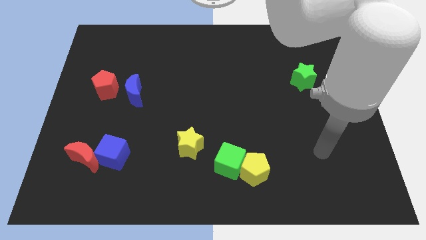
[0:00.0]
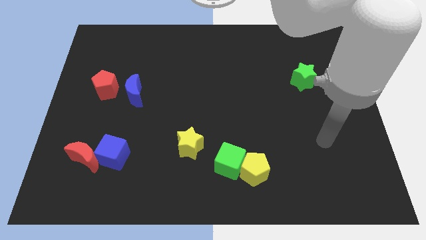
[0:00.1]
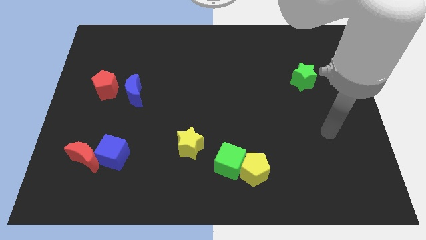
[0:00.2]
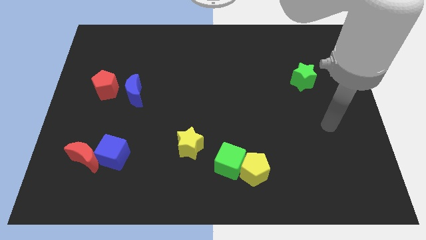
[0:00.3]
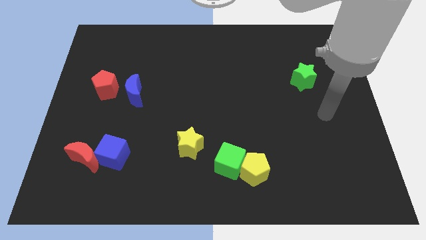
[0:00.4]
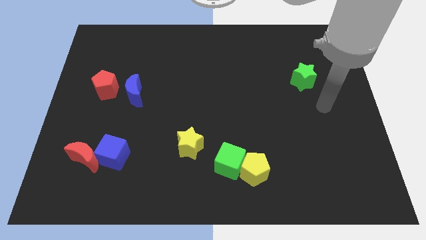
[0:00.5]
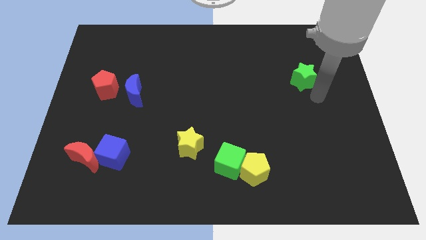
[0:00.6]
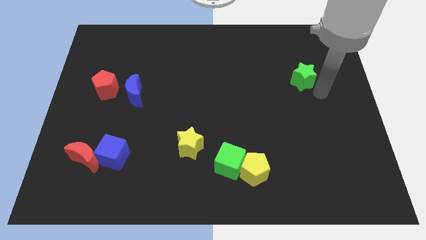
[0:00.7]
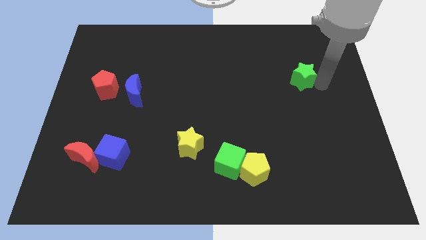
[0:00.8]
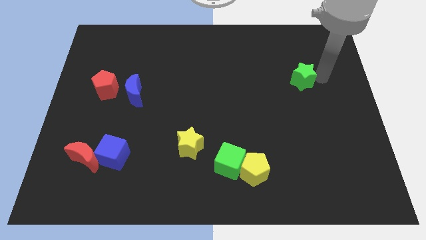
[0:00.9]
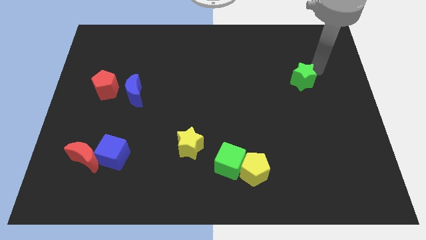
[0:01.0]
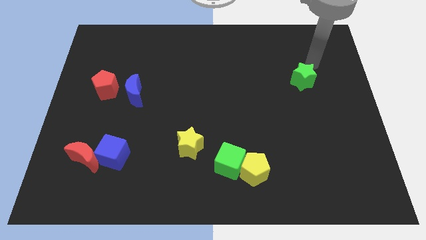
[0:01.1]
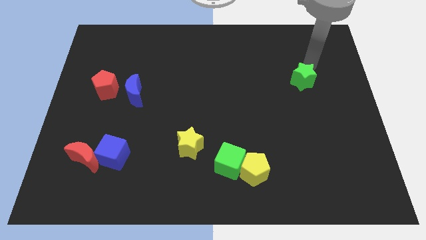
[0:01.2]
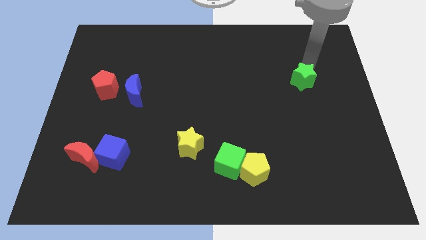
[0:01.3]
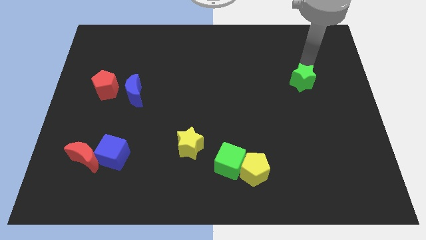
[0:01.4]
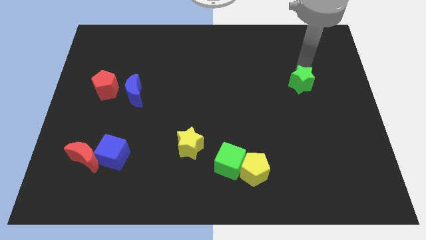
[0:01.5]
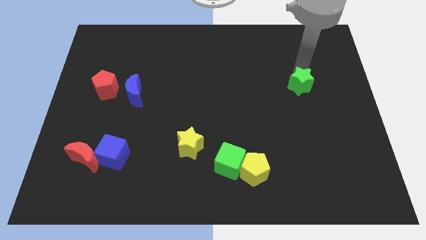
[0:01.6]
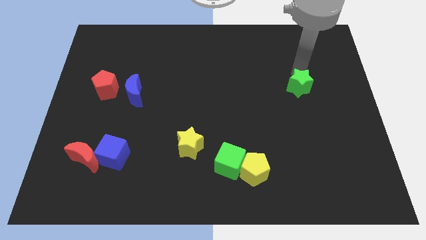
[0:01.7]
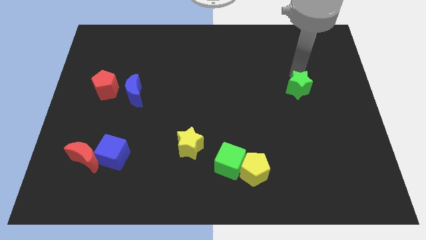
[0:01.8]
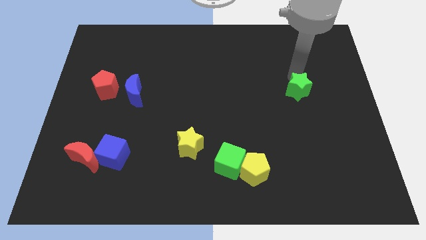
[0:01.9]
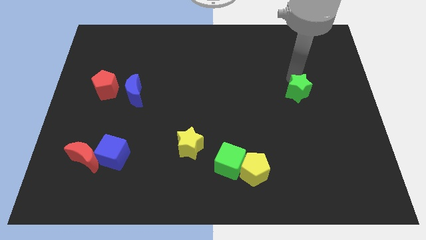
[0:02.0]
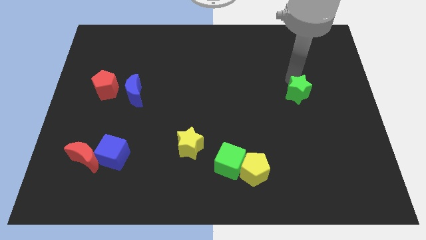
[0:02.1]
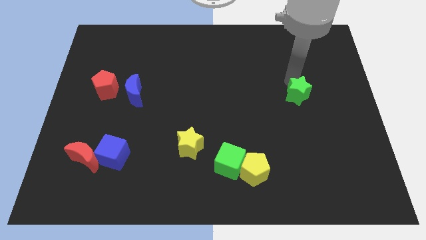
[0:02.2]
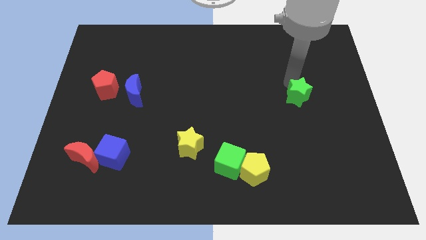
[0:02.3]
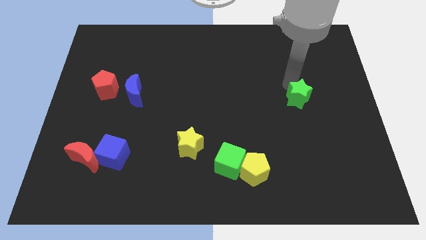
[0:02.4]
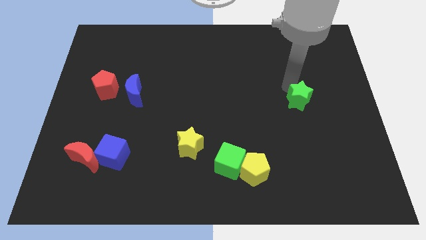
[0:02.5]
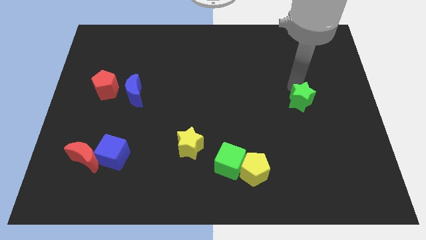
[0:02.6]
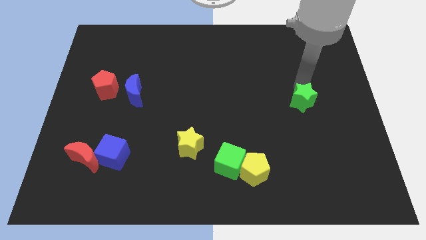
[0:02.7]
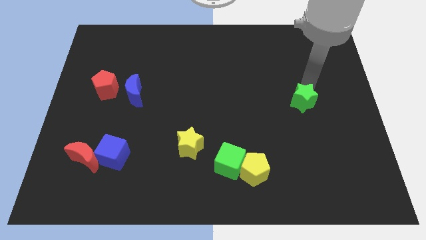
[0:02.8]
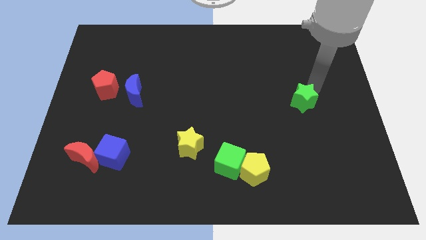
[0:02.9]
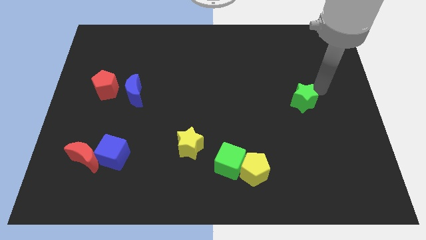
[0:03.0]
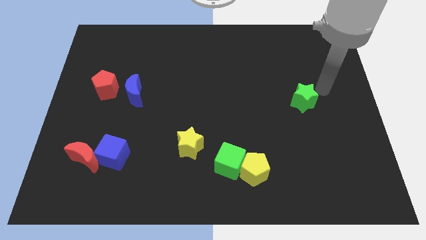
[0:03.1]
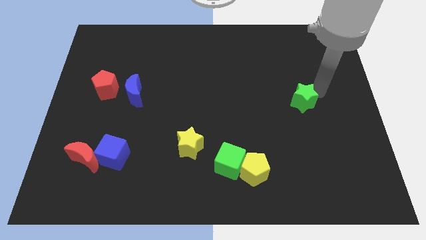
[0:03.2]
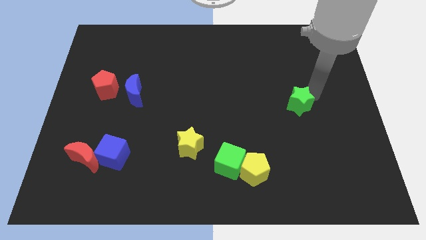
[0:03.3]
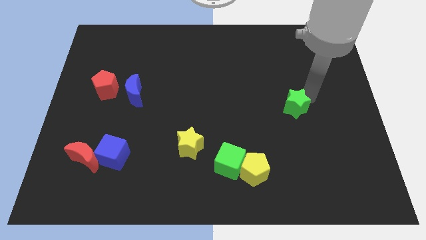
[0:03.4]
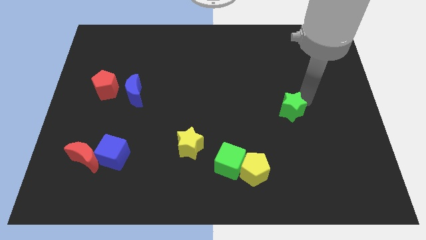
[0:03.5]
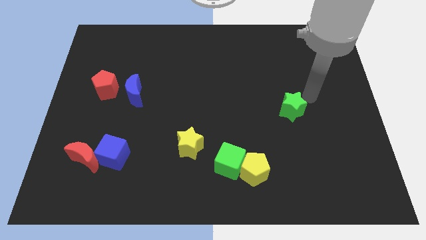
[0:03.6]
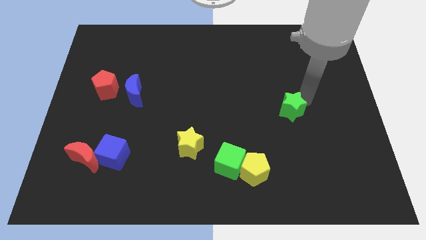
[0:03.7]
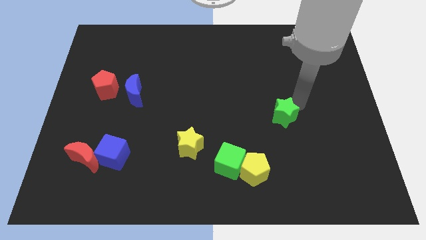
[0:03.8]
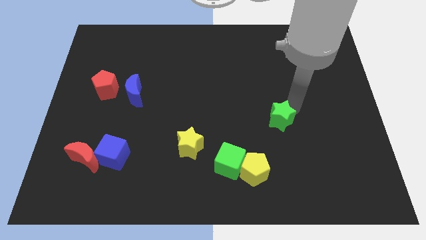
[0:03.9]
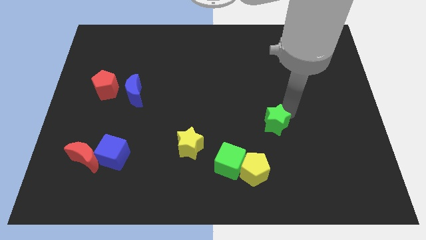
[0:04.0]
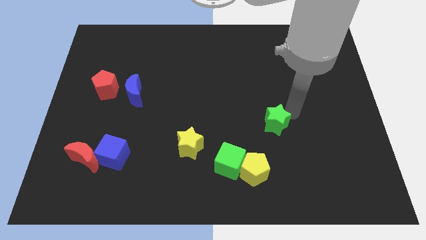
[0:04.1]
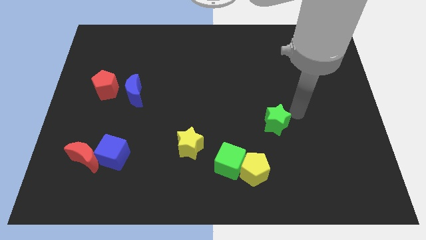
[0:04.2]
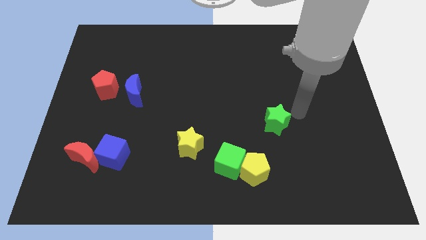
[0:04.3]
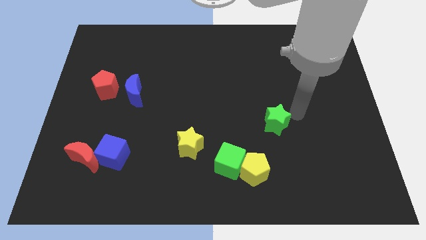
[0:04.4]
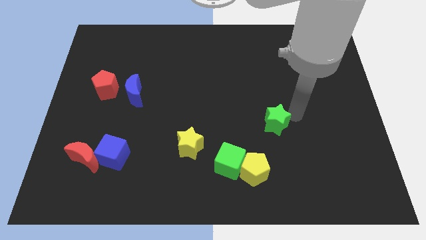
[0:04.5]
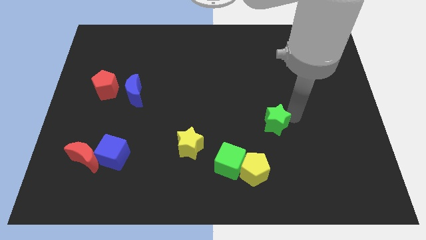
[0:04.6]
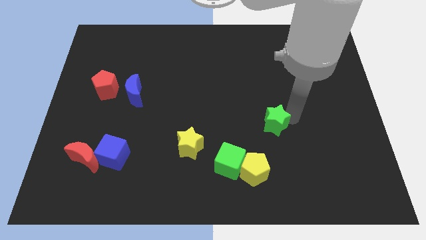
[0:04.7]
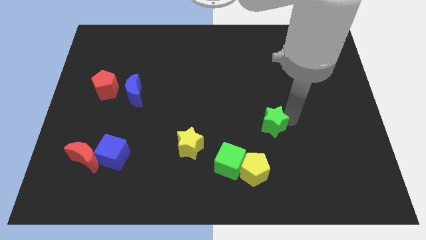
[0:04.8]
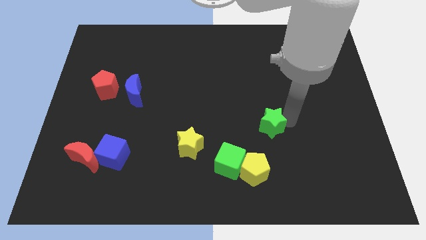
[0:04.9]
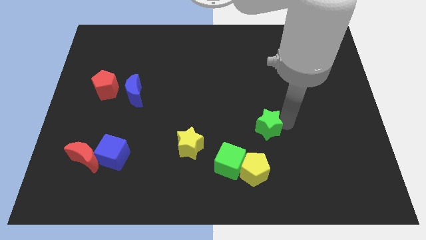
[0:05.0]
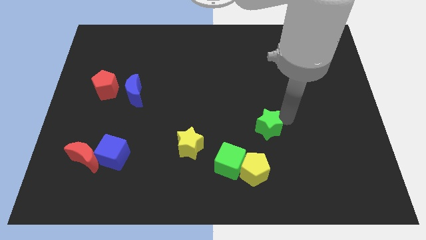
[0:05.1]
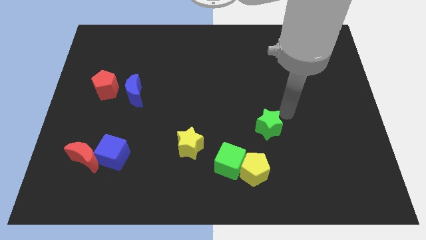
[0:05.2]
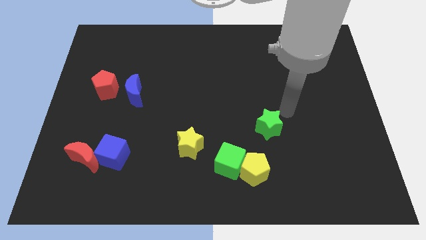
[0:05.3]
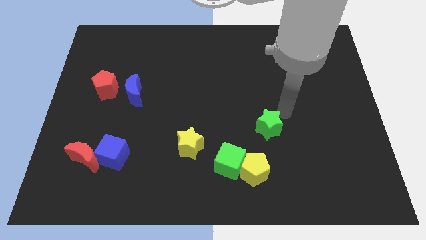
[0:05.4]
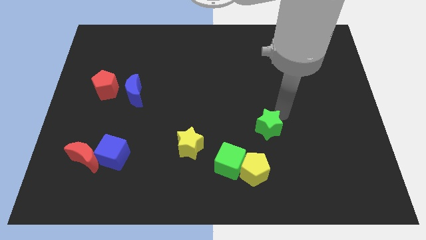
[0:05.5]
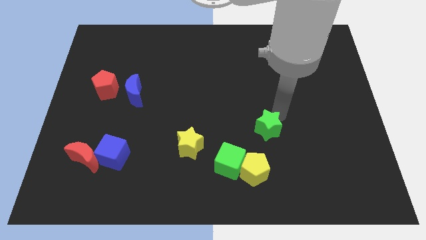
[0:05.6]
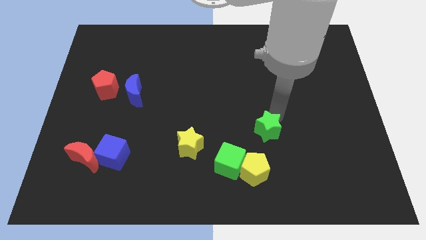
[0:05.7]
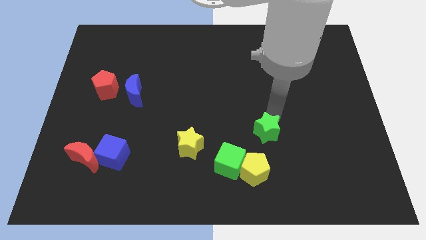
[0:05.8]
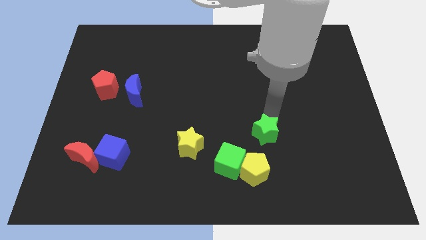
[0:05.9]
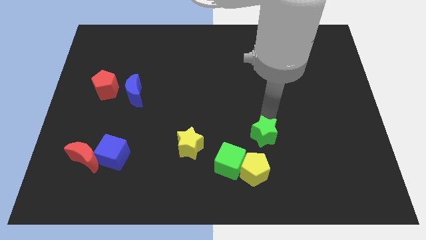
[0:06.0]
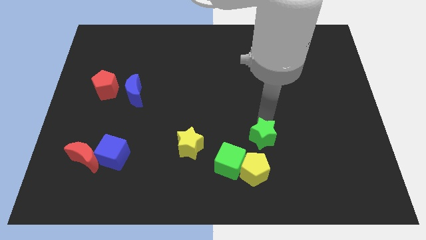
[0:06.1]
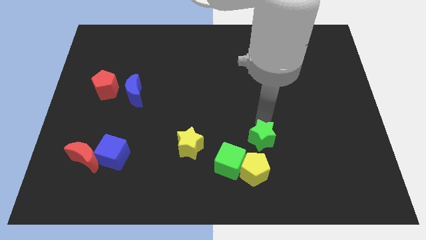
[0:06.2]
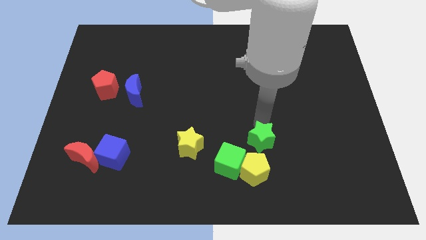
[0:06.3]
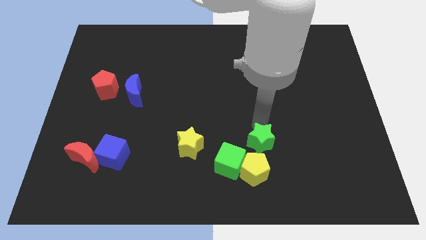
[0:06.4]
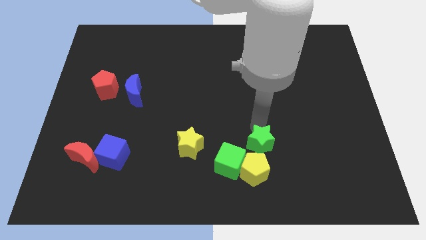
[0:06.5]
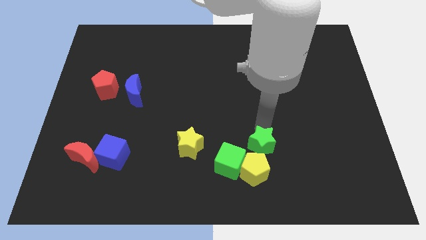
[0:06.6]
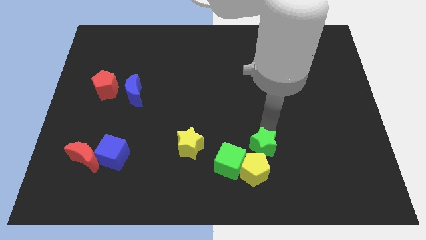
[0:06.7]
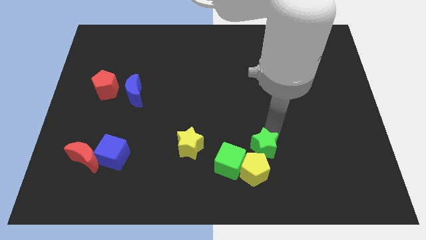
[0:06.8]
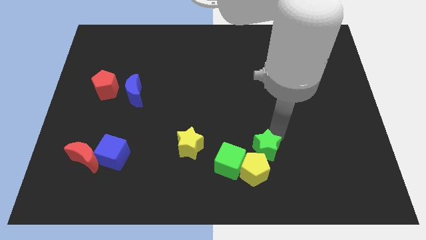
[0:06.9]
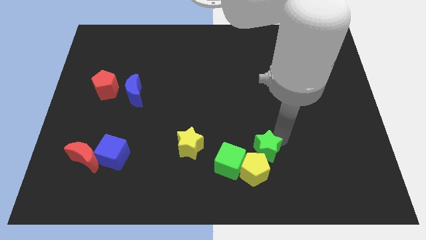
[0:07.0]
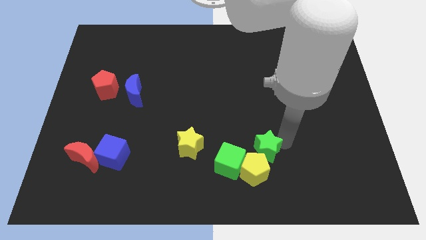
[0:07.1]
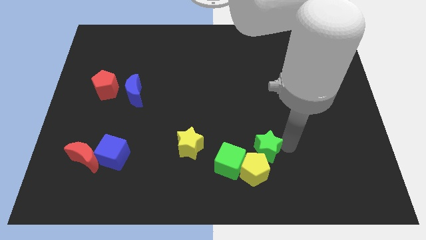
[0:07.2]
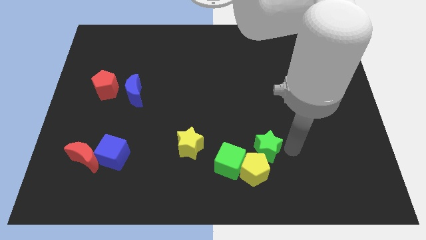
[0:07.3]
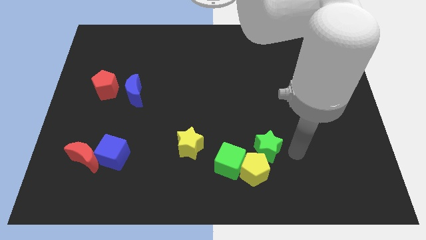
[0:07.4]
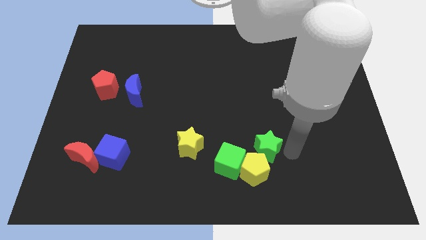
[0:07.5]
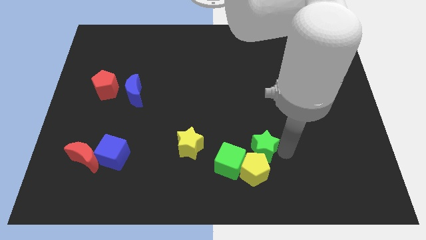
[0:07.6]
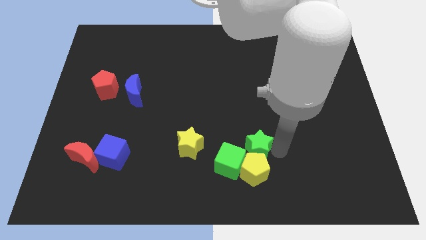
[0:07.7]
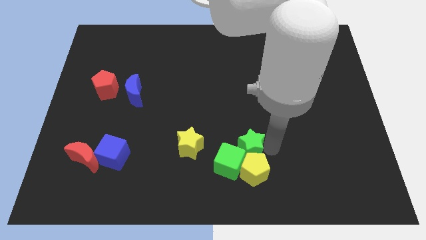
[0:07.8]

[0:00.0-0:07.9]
slide the green star to the green cube
